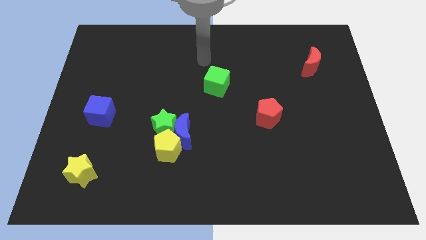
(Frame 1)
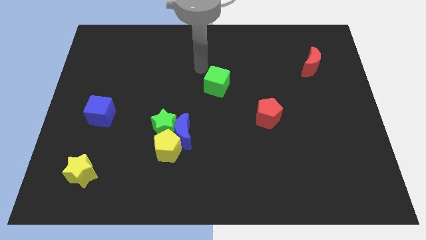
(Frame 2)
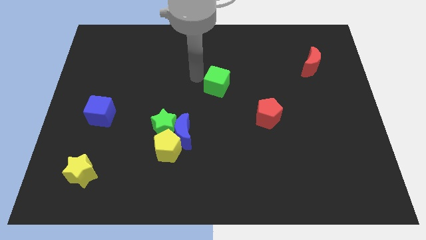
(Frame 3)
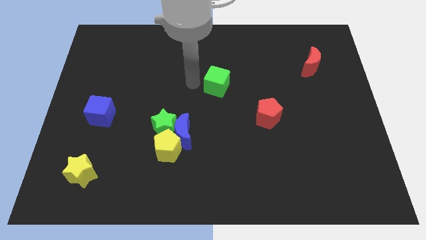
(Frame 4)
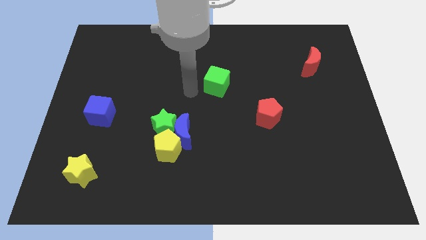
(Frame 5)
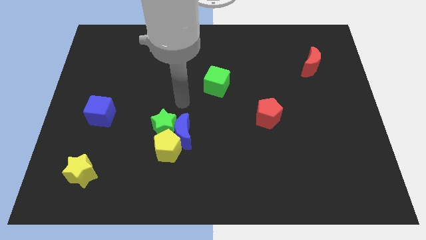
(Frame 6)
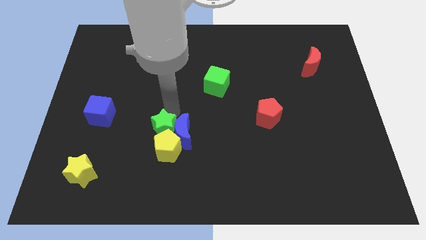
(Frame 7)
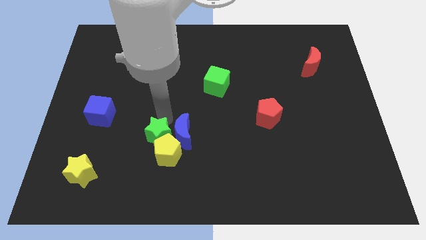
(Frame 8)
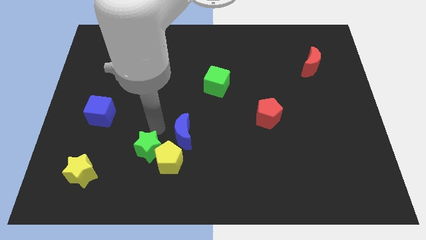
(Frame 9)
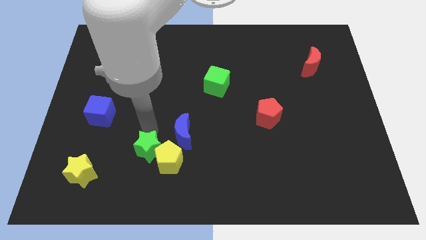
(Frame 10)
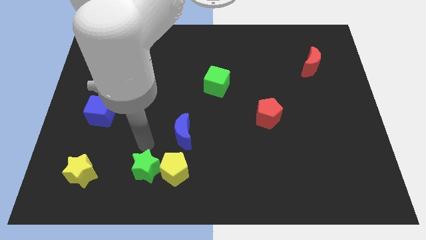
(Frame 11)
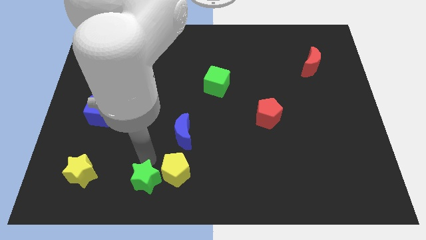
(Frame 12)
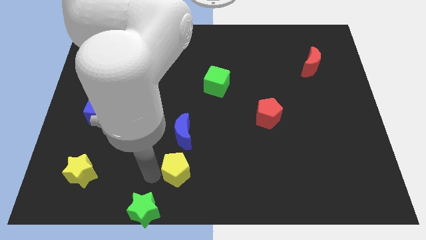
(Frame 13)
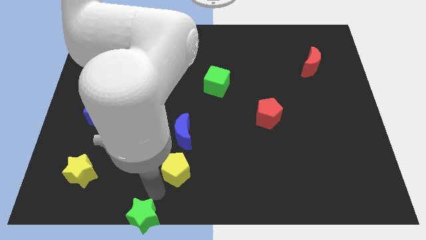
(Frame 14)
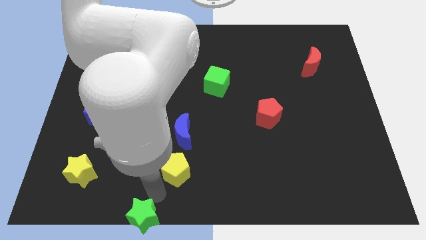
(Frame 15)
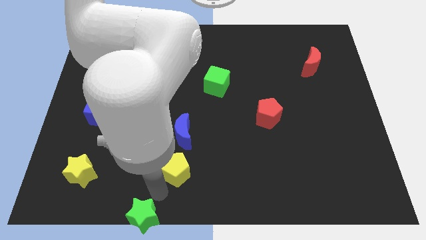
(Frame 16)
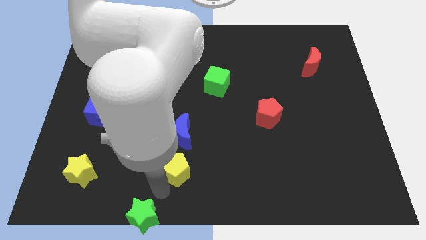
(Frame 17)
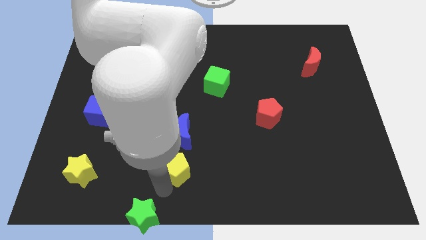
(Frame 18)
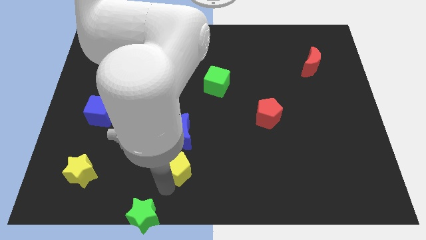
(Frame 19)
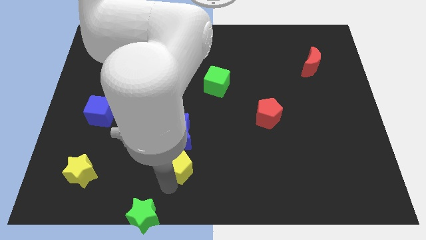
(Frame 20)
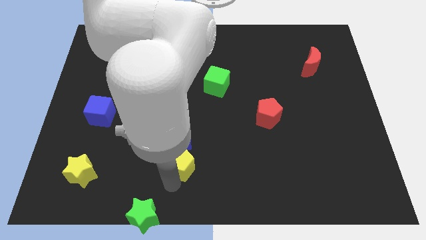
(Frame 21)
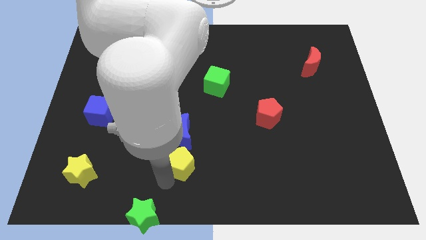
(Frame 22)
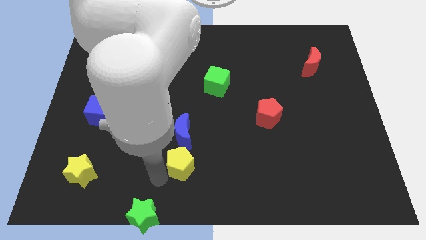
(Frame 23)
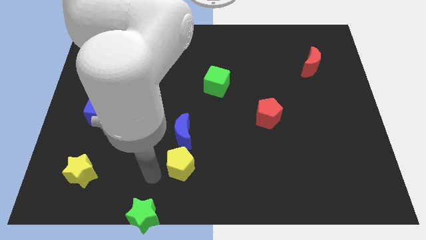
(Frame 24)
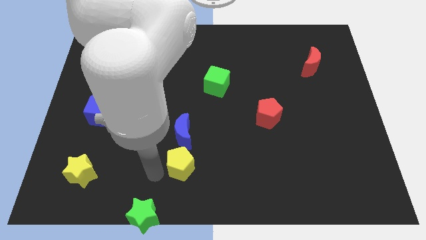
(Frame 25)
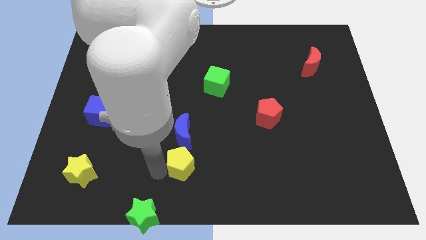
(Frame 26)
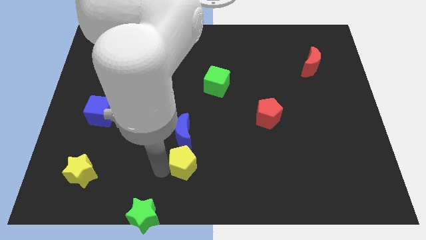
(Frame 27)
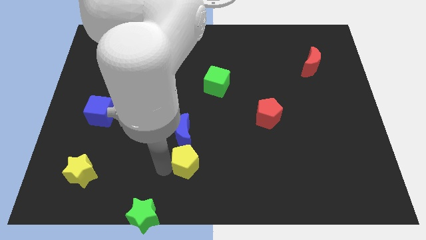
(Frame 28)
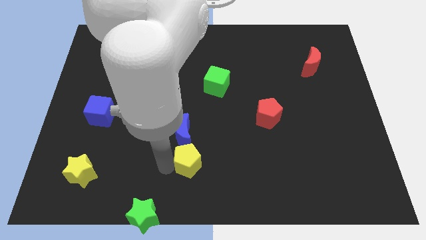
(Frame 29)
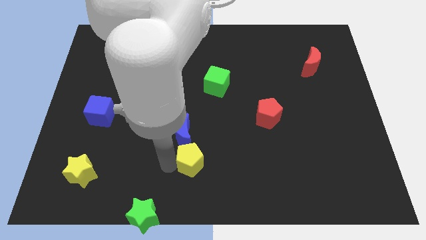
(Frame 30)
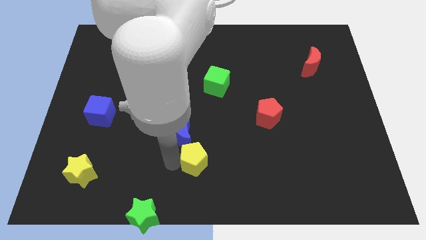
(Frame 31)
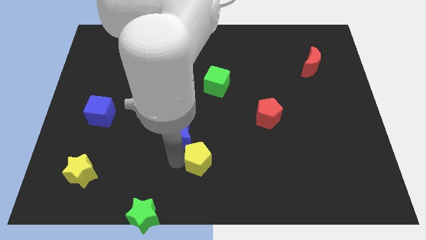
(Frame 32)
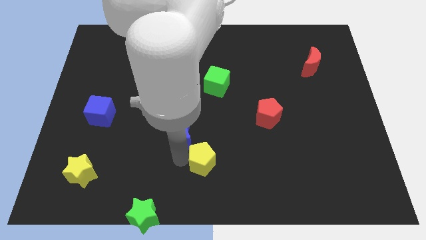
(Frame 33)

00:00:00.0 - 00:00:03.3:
move the yellow pentagon right slightly

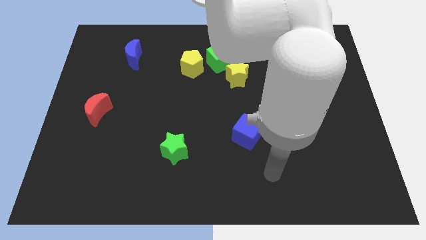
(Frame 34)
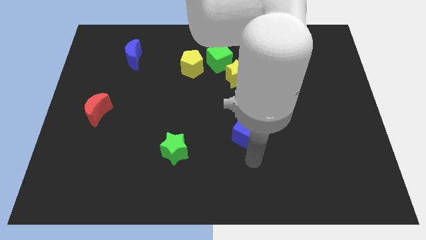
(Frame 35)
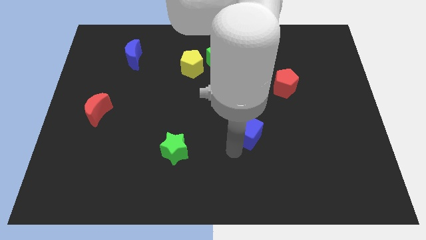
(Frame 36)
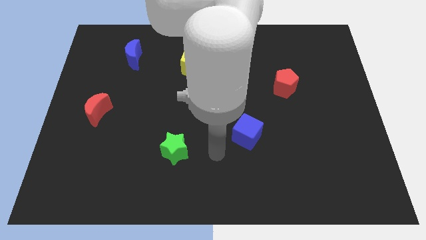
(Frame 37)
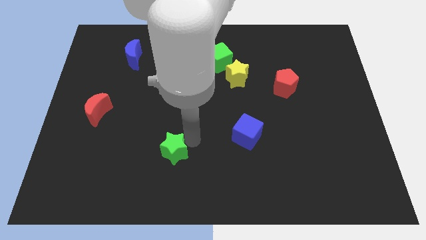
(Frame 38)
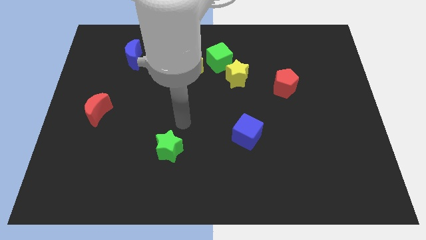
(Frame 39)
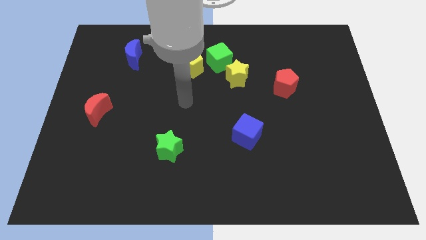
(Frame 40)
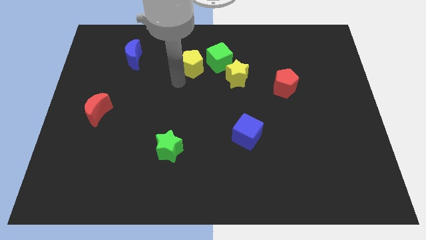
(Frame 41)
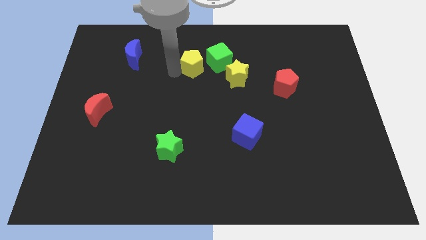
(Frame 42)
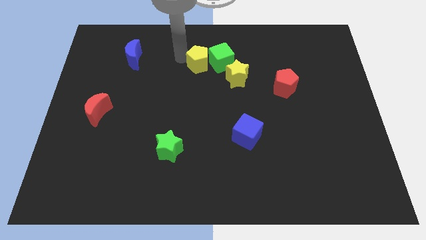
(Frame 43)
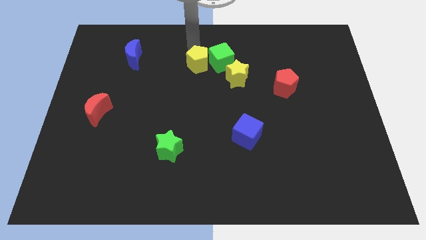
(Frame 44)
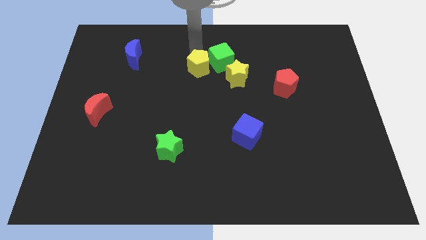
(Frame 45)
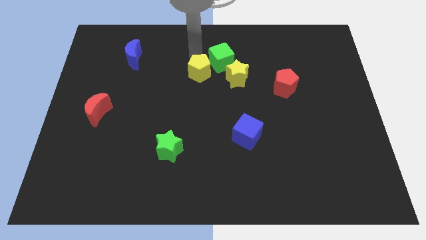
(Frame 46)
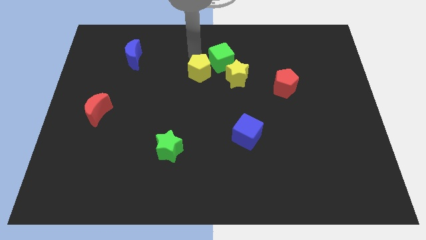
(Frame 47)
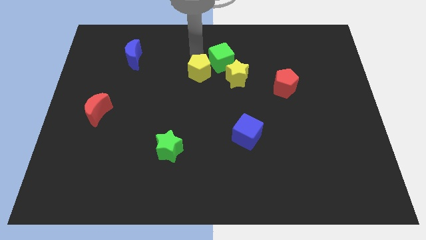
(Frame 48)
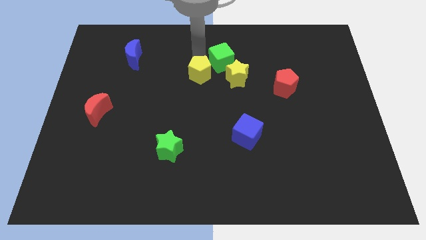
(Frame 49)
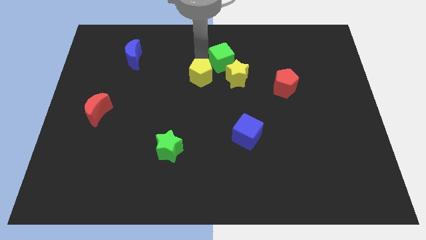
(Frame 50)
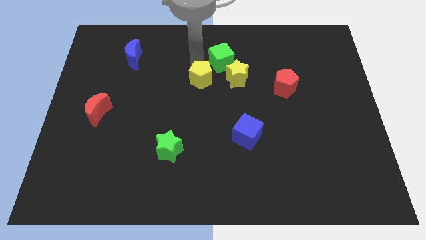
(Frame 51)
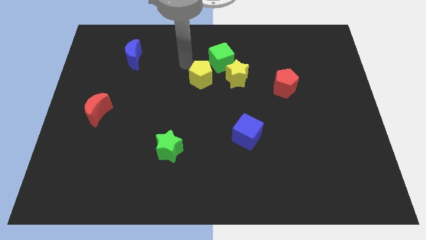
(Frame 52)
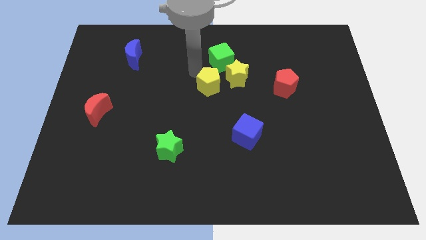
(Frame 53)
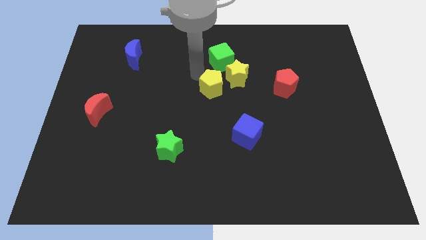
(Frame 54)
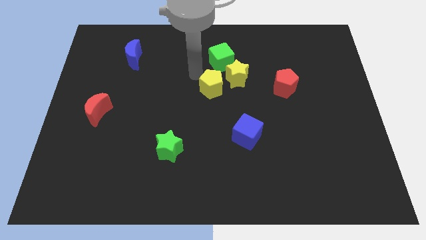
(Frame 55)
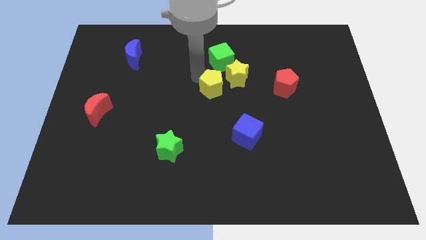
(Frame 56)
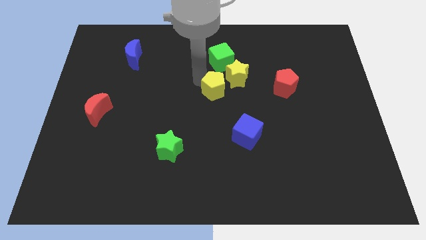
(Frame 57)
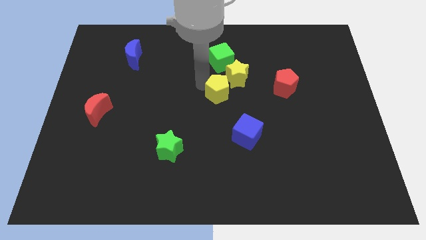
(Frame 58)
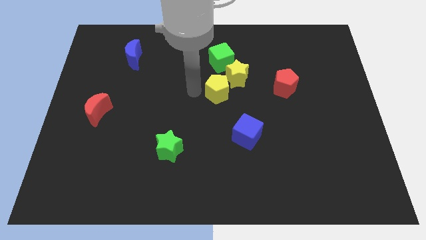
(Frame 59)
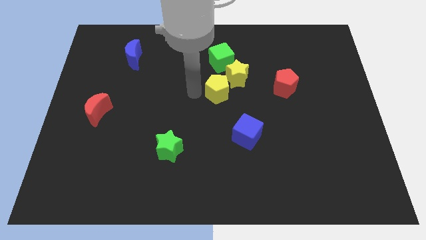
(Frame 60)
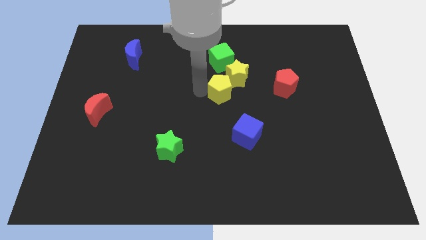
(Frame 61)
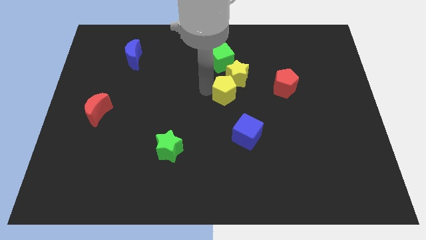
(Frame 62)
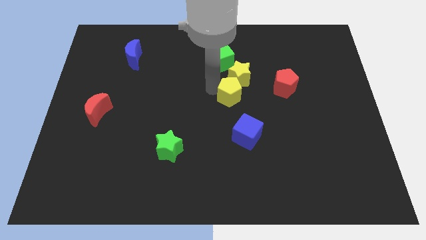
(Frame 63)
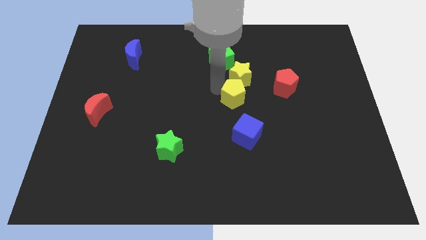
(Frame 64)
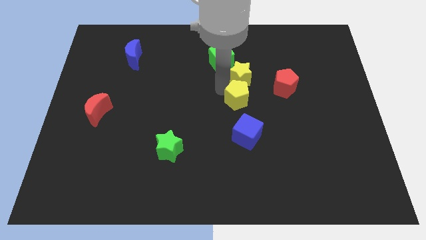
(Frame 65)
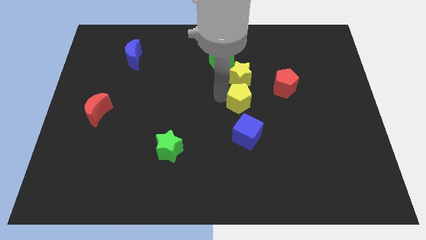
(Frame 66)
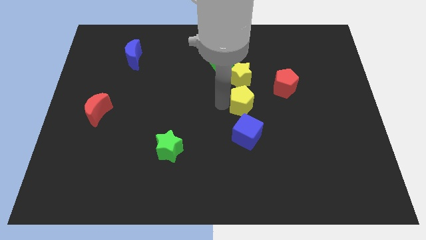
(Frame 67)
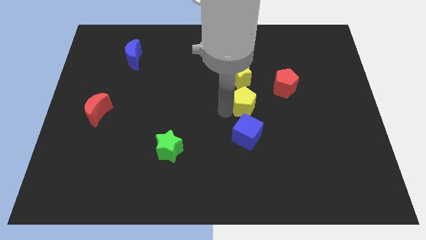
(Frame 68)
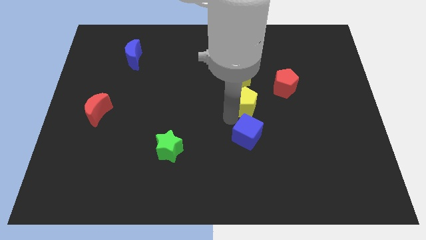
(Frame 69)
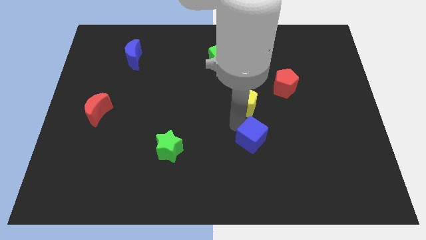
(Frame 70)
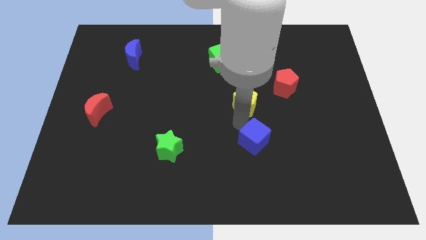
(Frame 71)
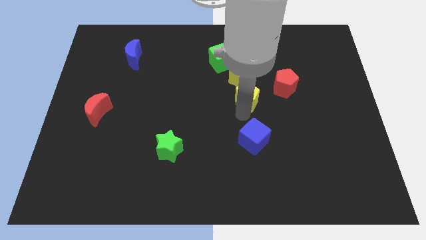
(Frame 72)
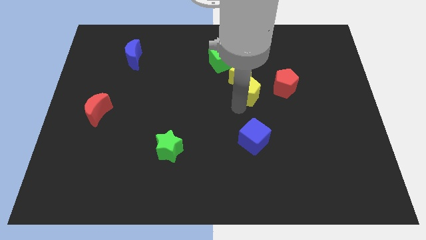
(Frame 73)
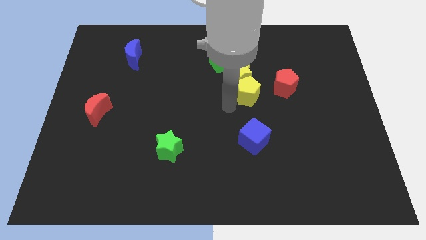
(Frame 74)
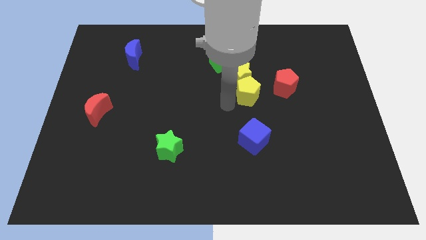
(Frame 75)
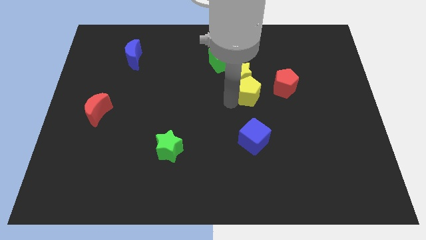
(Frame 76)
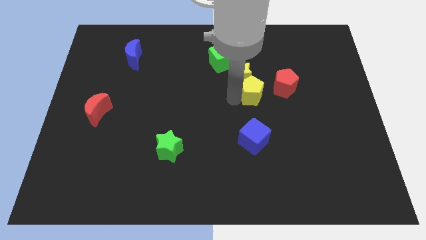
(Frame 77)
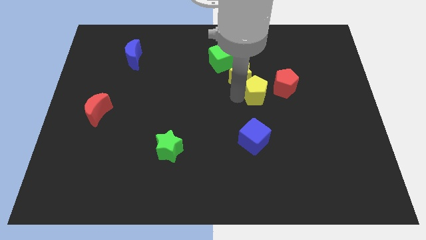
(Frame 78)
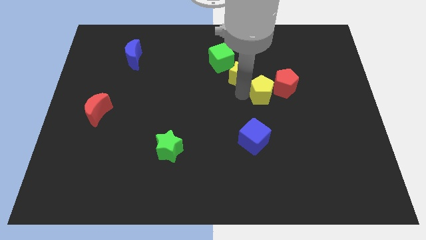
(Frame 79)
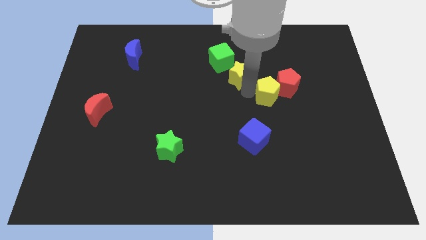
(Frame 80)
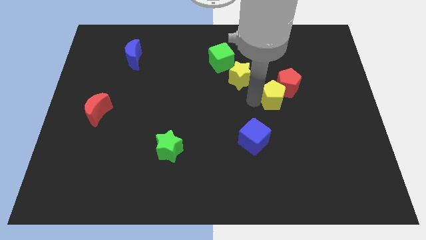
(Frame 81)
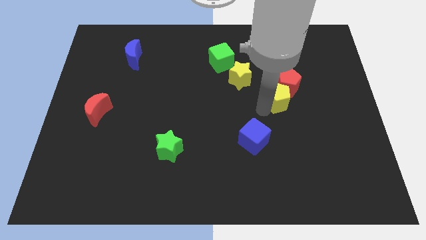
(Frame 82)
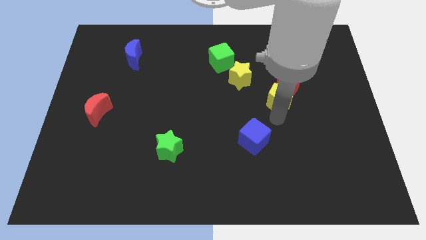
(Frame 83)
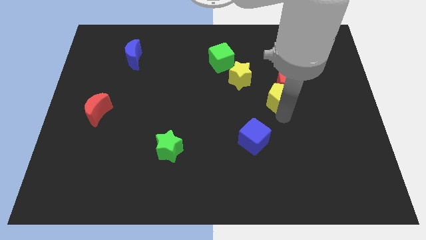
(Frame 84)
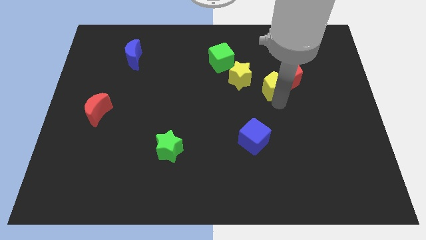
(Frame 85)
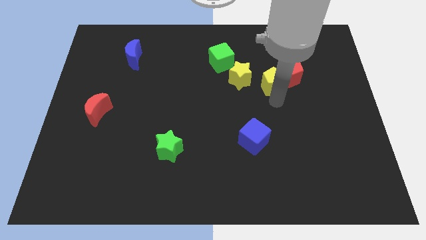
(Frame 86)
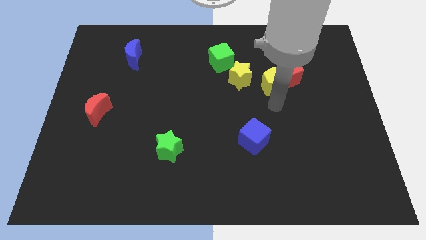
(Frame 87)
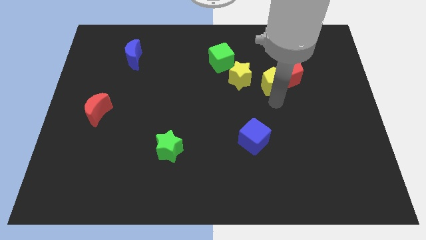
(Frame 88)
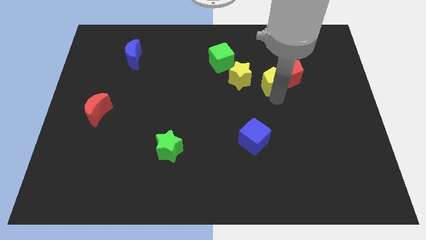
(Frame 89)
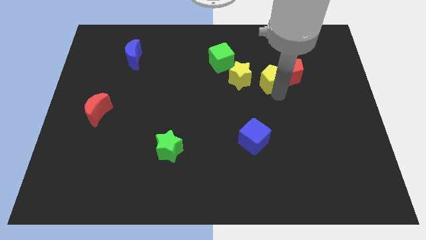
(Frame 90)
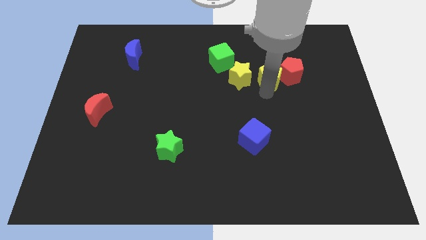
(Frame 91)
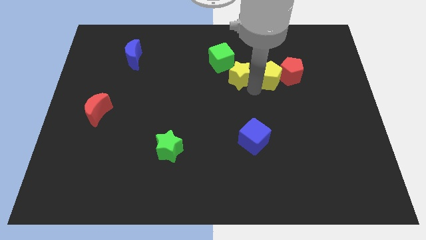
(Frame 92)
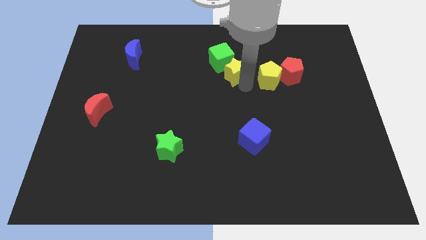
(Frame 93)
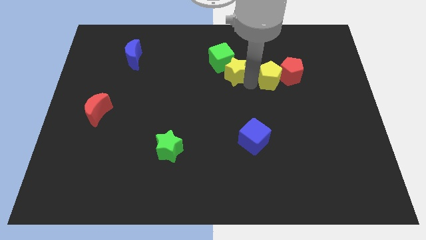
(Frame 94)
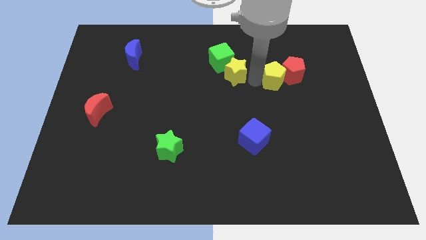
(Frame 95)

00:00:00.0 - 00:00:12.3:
move the yellow pentagon right
